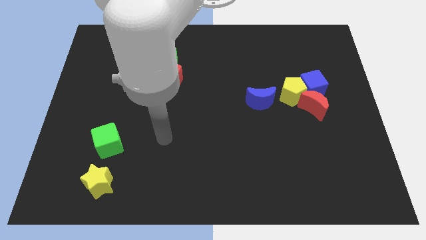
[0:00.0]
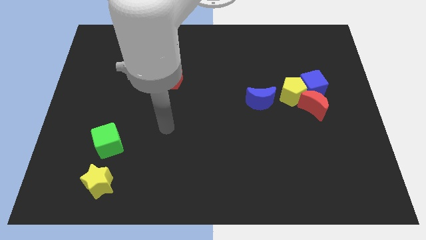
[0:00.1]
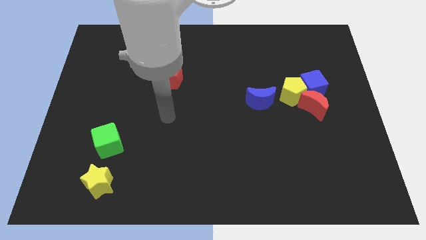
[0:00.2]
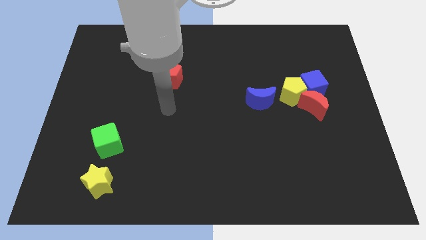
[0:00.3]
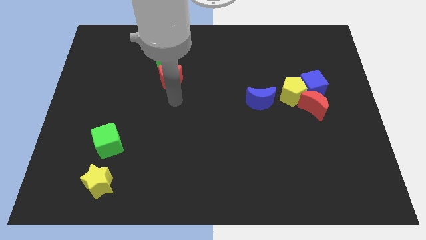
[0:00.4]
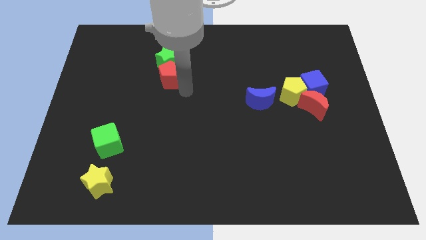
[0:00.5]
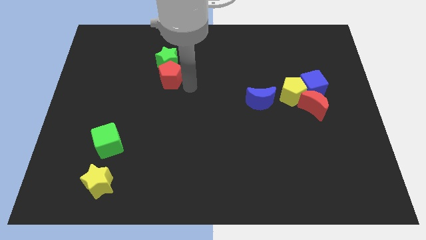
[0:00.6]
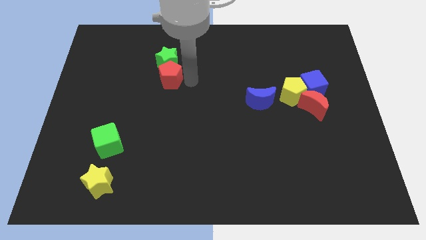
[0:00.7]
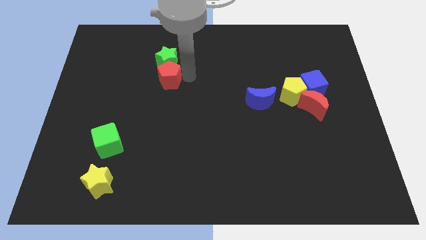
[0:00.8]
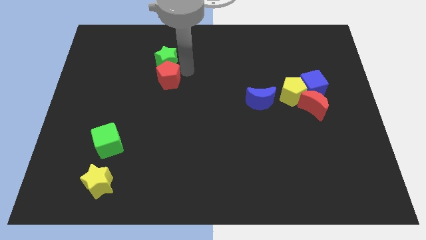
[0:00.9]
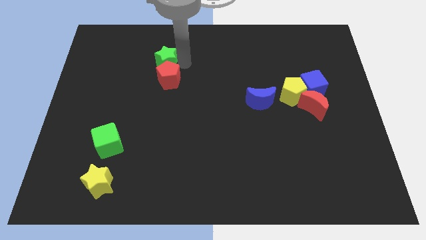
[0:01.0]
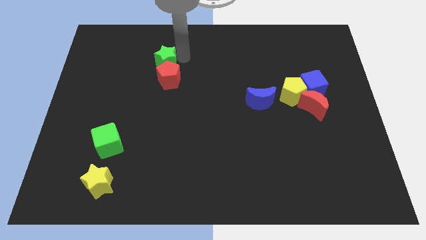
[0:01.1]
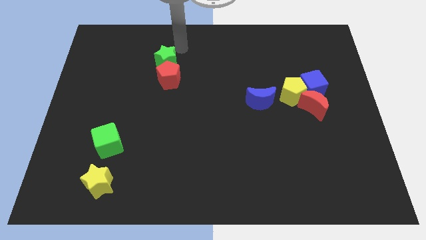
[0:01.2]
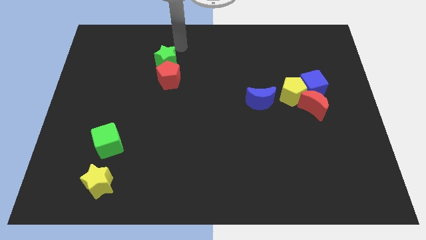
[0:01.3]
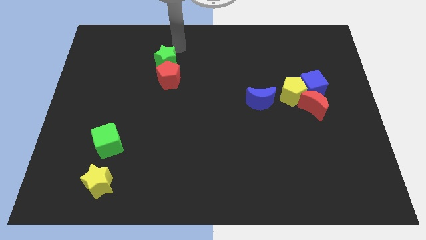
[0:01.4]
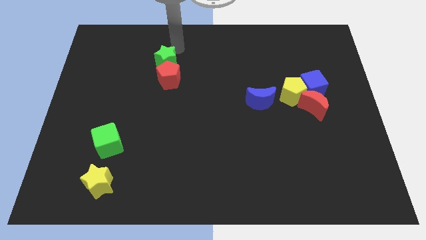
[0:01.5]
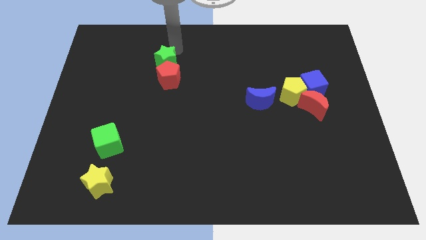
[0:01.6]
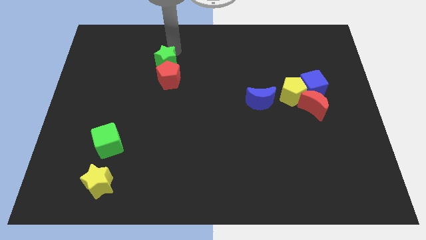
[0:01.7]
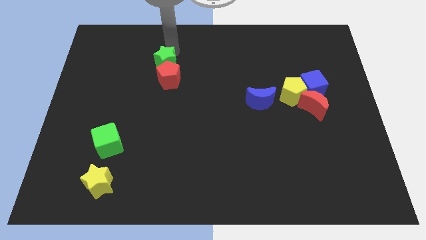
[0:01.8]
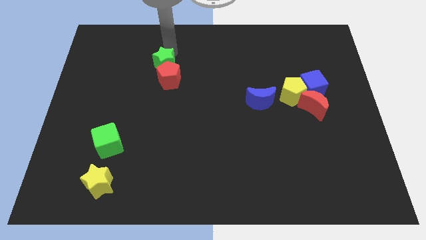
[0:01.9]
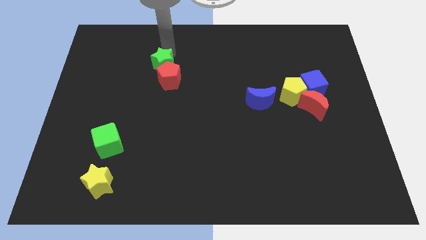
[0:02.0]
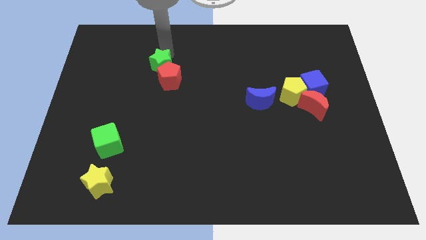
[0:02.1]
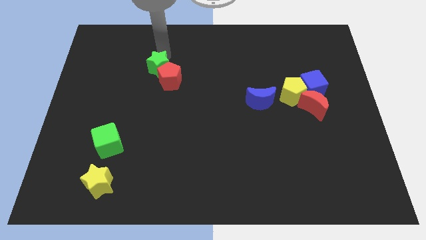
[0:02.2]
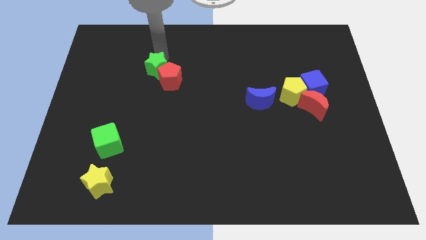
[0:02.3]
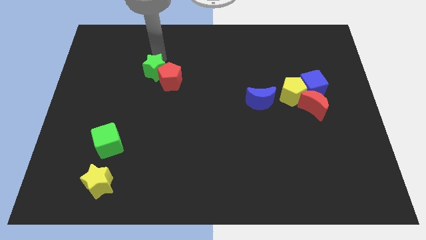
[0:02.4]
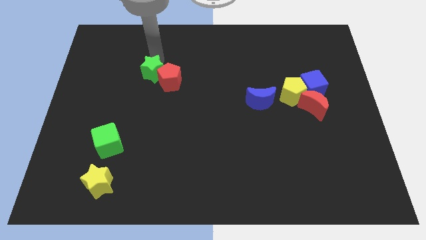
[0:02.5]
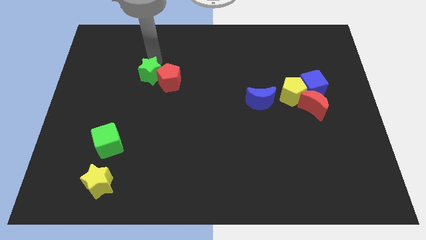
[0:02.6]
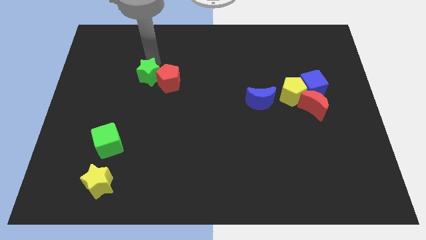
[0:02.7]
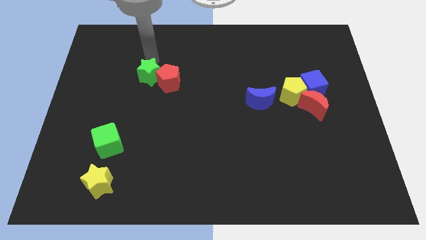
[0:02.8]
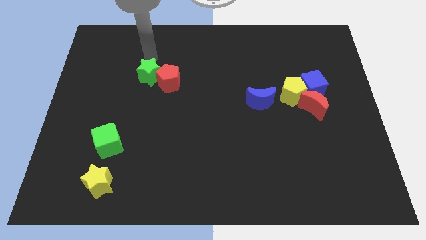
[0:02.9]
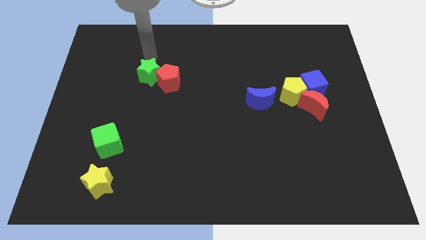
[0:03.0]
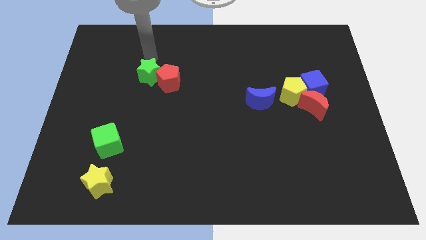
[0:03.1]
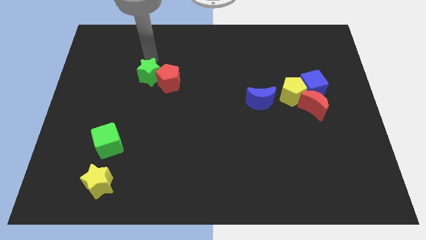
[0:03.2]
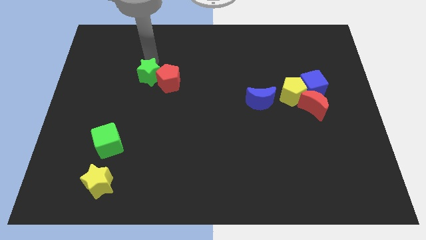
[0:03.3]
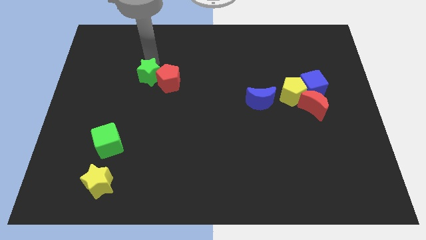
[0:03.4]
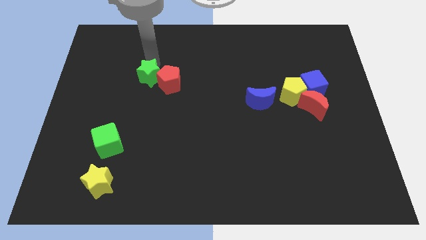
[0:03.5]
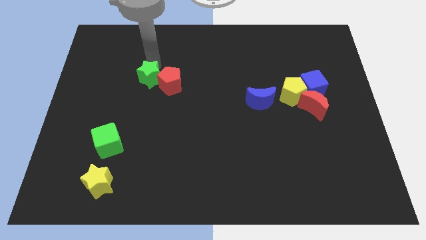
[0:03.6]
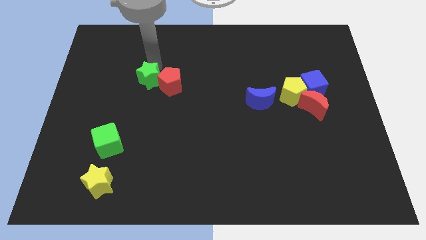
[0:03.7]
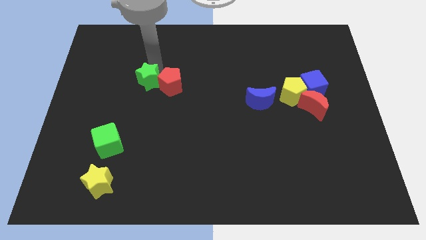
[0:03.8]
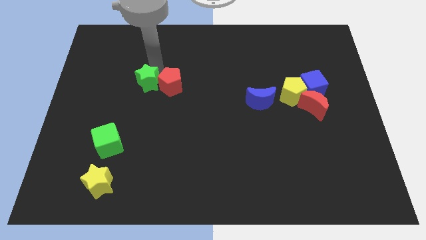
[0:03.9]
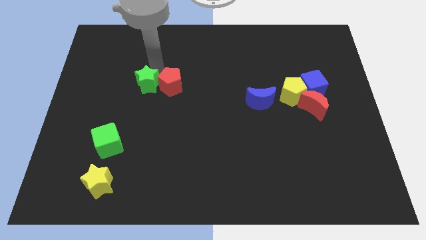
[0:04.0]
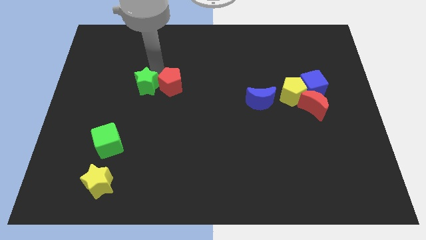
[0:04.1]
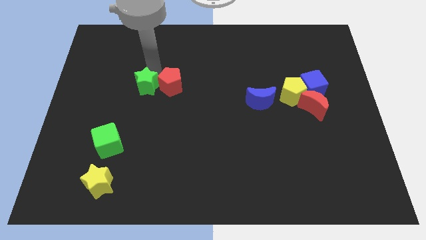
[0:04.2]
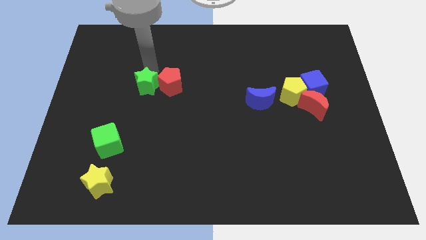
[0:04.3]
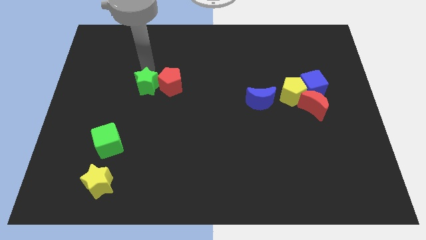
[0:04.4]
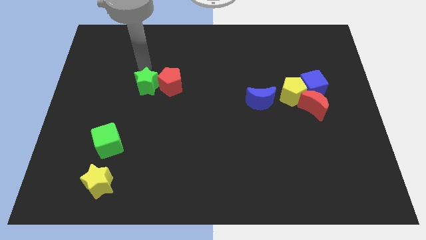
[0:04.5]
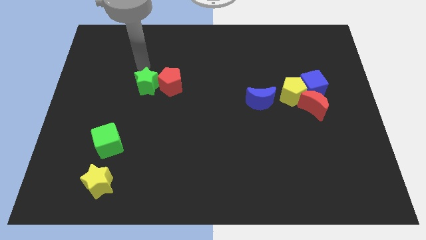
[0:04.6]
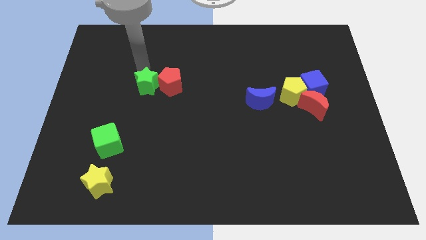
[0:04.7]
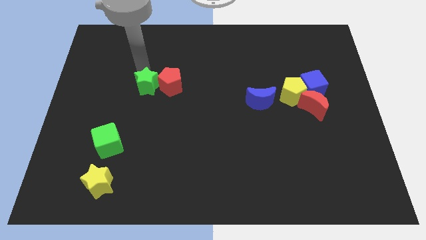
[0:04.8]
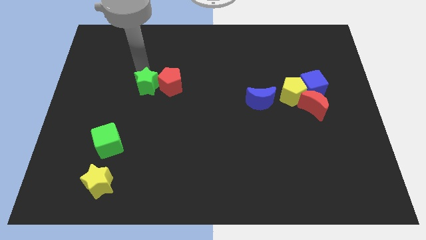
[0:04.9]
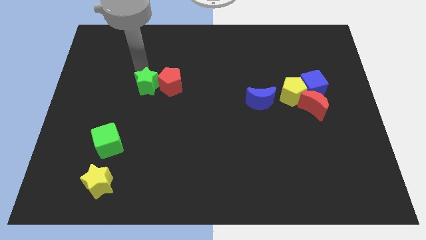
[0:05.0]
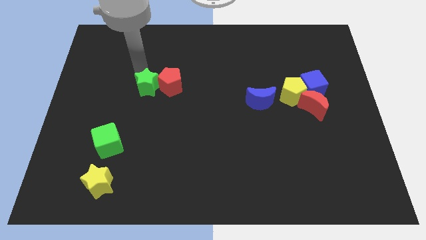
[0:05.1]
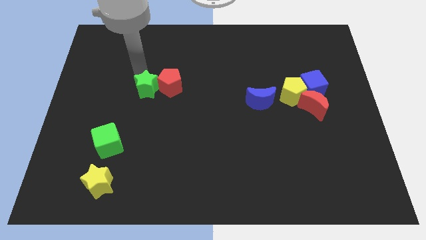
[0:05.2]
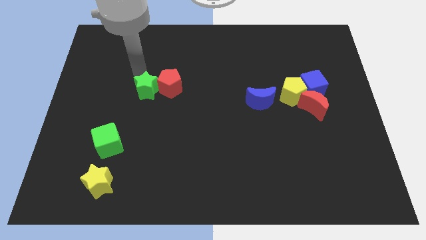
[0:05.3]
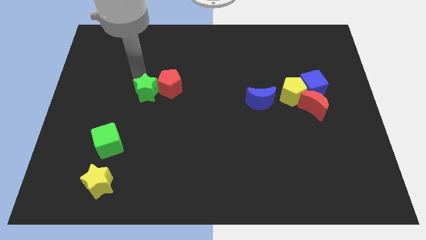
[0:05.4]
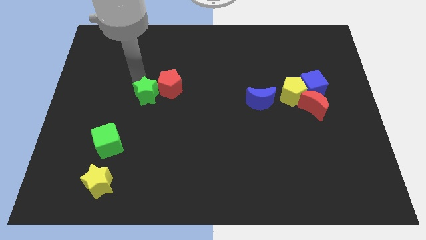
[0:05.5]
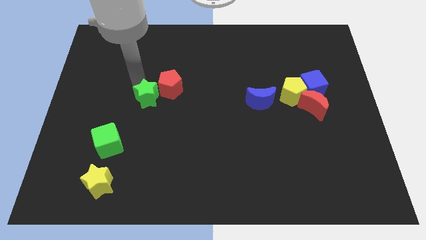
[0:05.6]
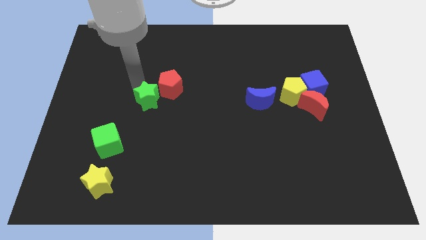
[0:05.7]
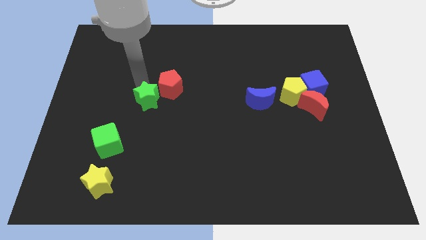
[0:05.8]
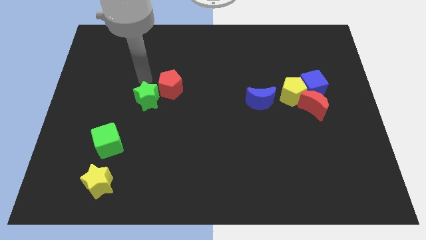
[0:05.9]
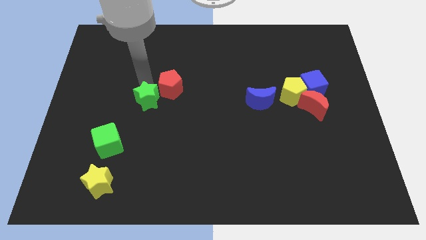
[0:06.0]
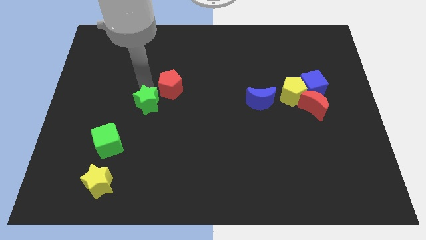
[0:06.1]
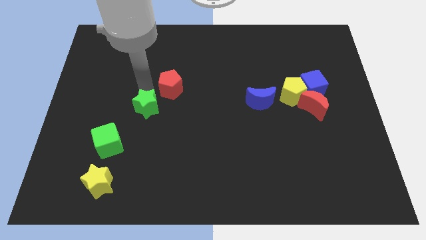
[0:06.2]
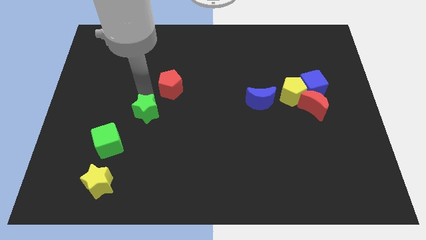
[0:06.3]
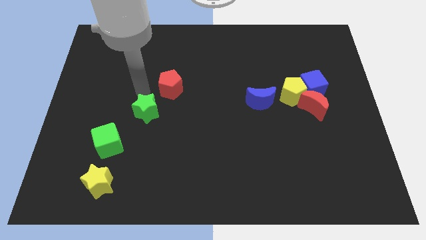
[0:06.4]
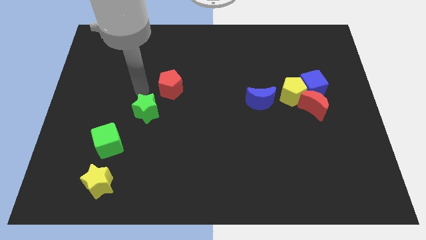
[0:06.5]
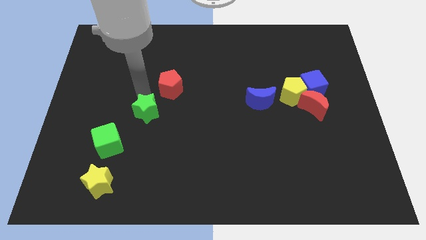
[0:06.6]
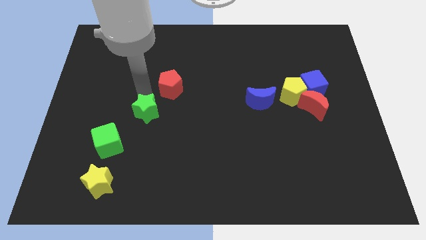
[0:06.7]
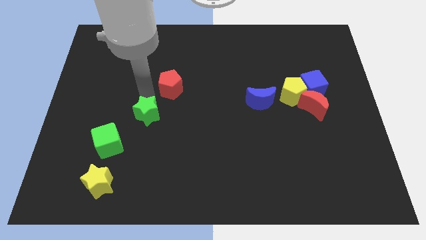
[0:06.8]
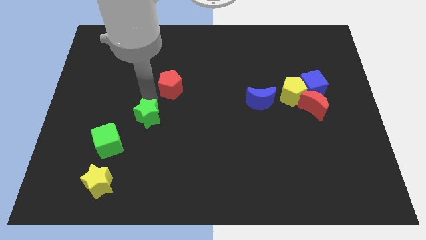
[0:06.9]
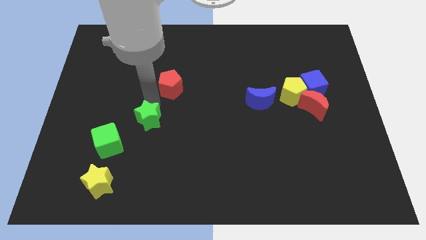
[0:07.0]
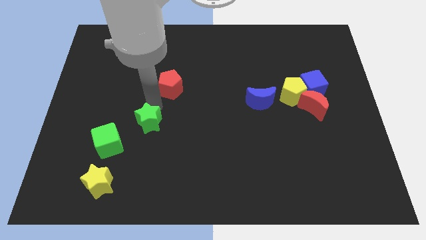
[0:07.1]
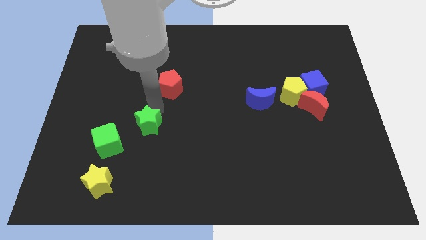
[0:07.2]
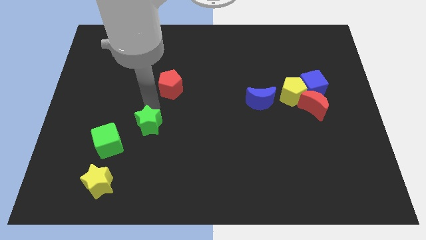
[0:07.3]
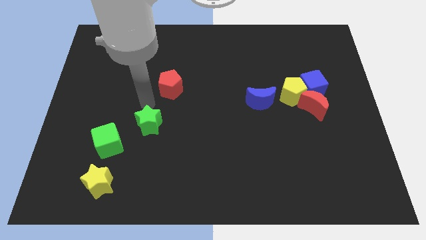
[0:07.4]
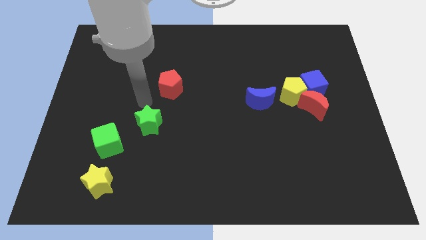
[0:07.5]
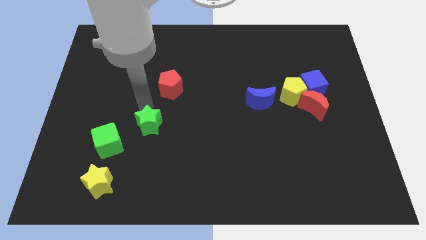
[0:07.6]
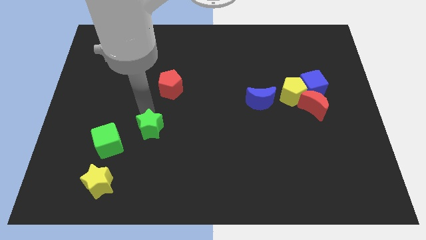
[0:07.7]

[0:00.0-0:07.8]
move the green star downwards

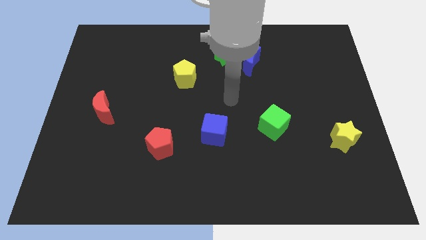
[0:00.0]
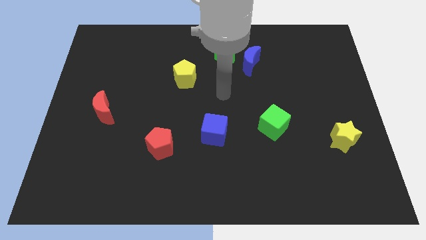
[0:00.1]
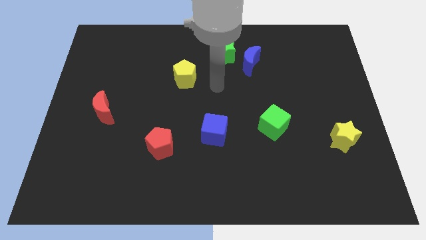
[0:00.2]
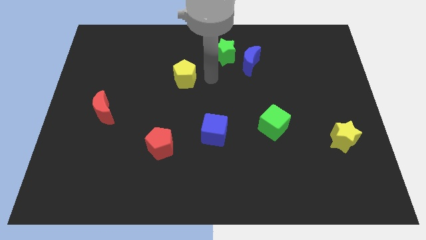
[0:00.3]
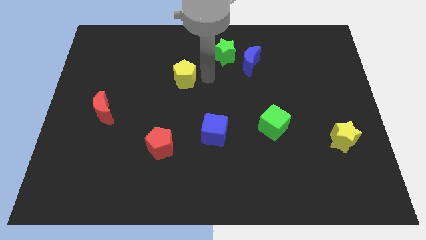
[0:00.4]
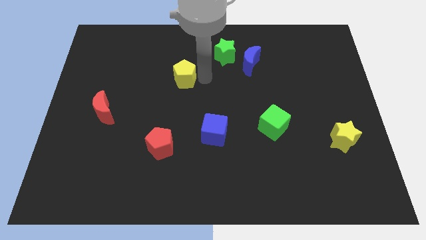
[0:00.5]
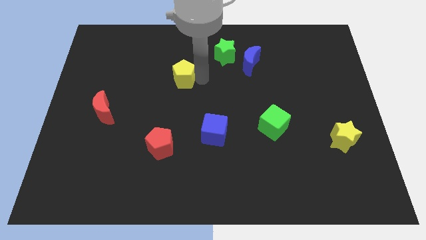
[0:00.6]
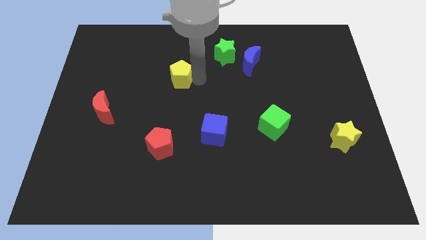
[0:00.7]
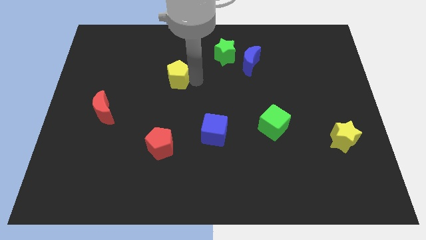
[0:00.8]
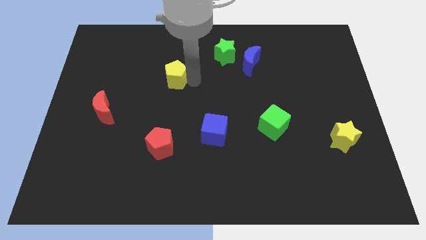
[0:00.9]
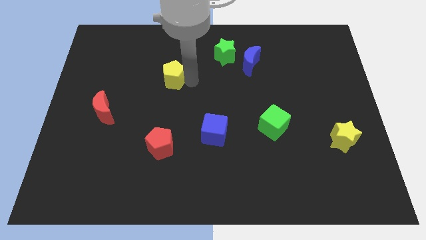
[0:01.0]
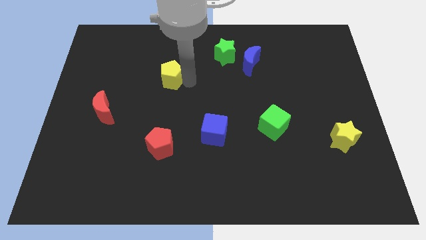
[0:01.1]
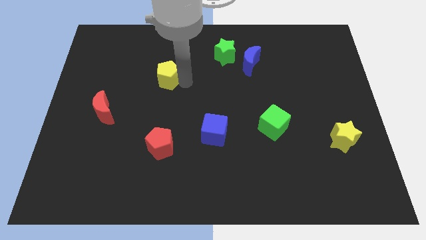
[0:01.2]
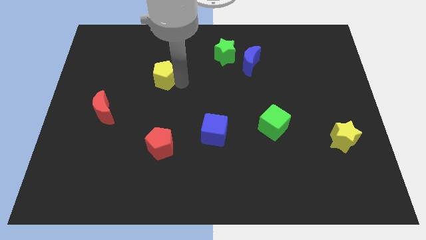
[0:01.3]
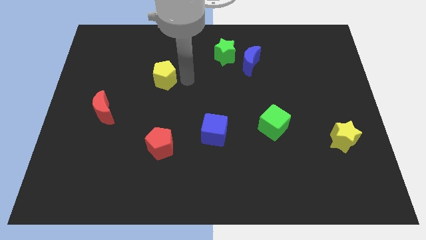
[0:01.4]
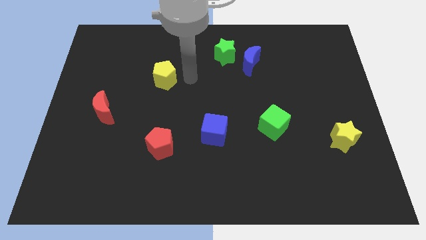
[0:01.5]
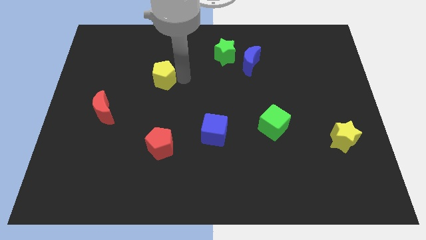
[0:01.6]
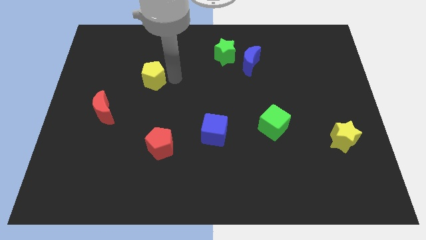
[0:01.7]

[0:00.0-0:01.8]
move the yellow pentagon a bit to the left
